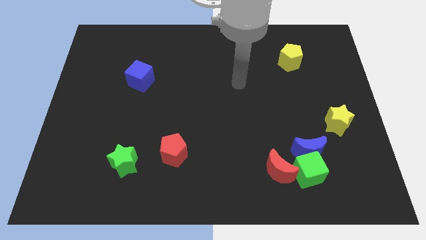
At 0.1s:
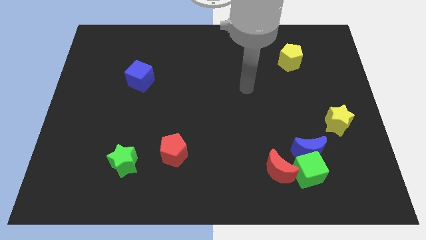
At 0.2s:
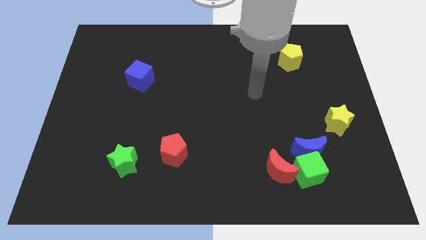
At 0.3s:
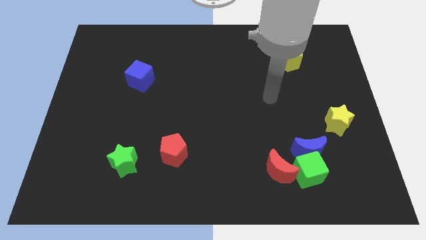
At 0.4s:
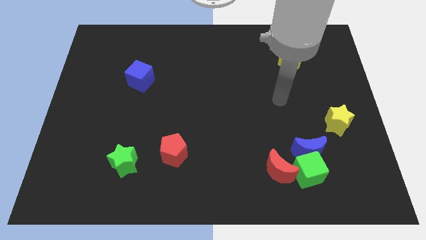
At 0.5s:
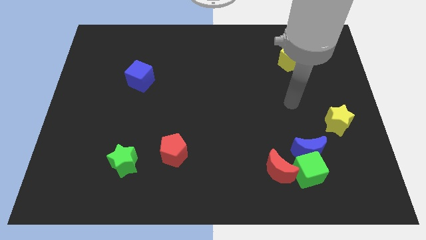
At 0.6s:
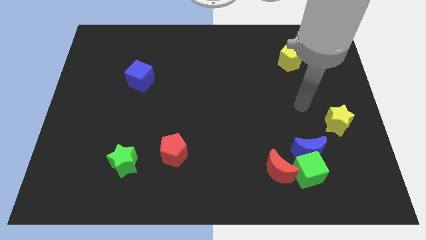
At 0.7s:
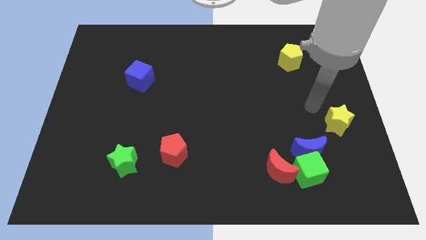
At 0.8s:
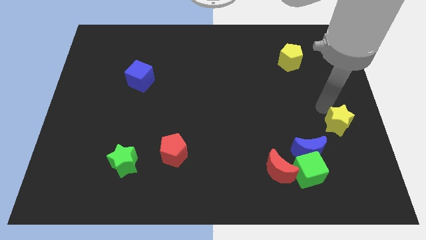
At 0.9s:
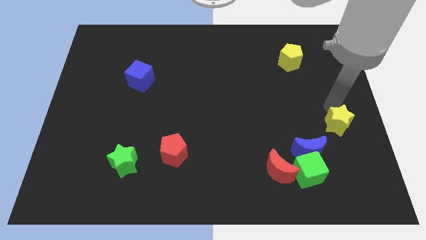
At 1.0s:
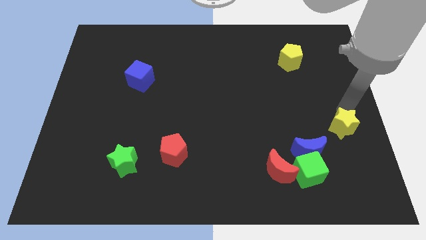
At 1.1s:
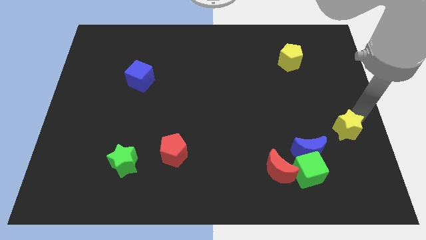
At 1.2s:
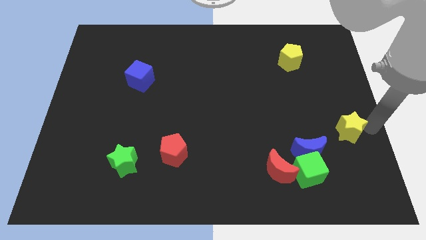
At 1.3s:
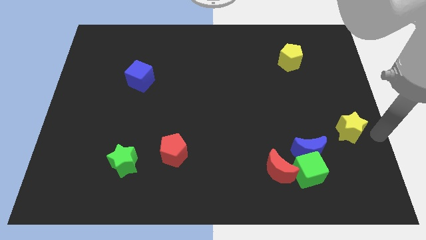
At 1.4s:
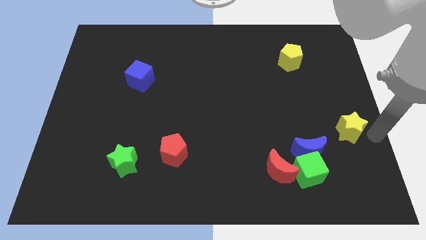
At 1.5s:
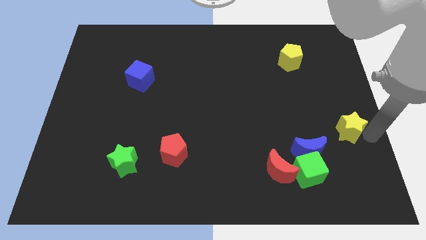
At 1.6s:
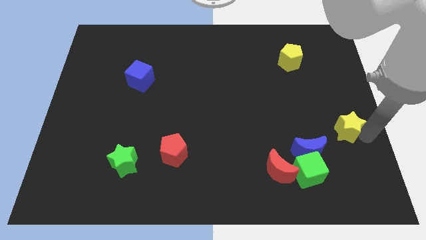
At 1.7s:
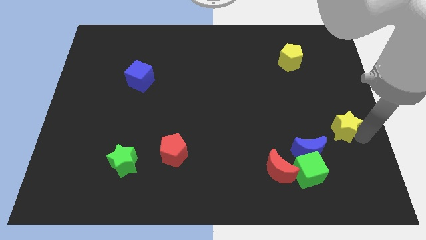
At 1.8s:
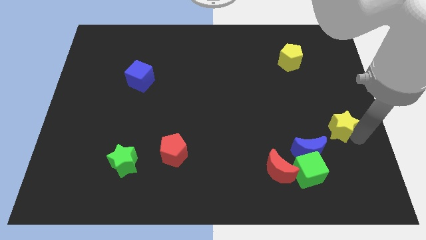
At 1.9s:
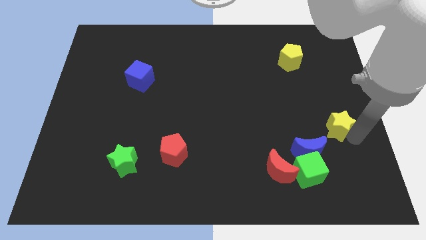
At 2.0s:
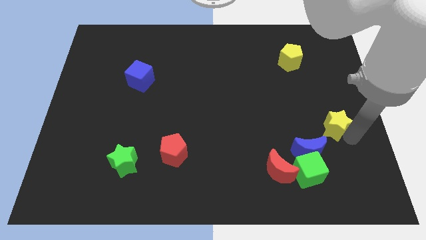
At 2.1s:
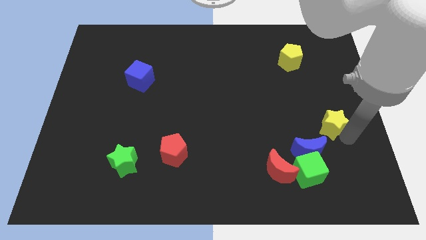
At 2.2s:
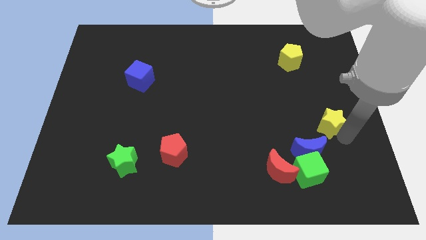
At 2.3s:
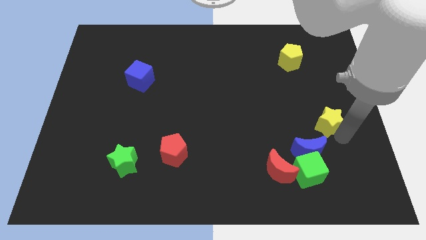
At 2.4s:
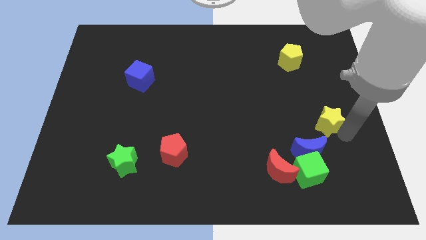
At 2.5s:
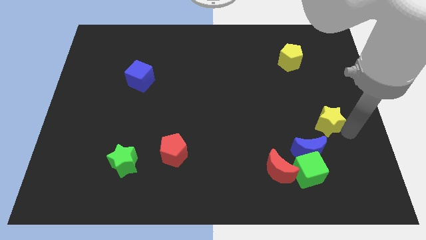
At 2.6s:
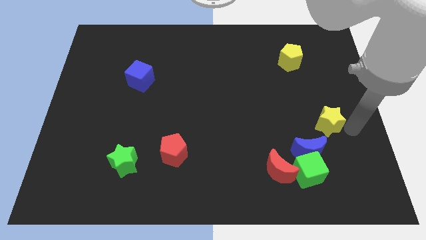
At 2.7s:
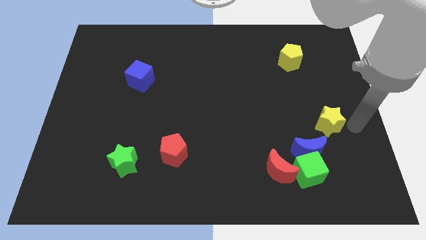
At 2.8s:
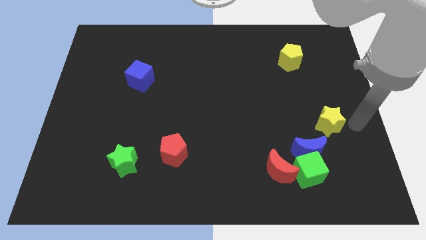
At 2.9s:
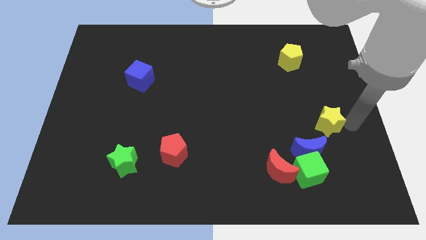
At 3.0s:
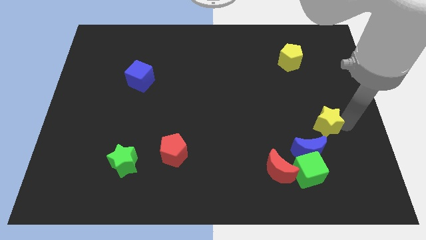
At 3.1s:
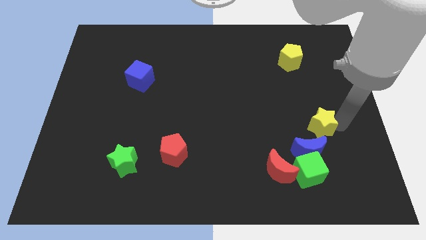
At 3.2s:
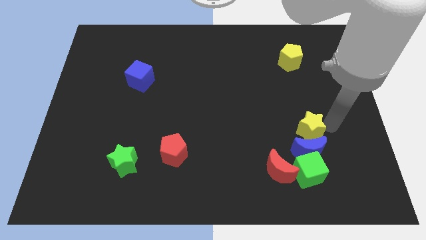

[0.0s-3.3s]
slide the yellow star a little to the left

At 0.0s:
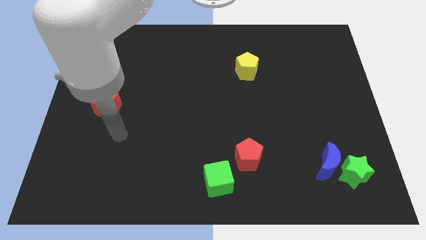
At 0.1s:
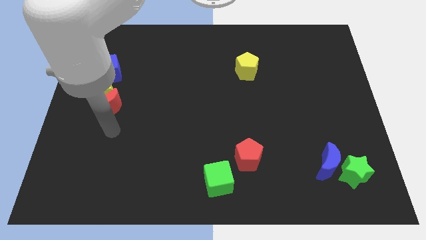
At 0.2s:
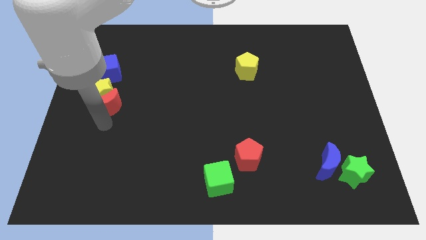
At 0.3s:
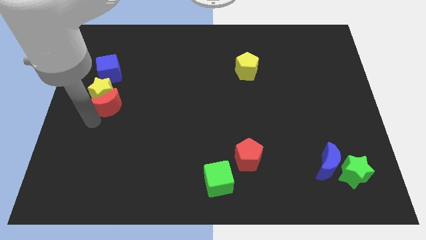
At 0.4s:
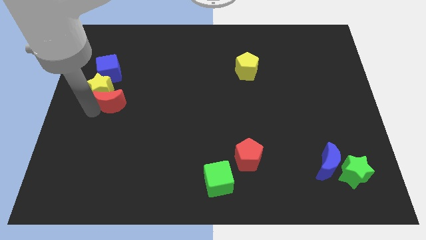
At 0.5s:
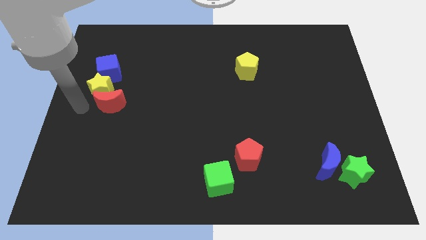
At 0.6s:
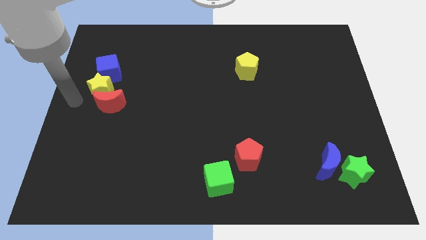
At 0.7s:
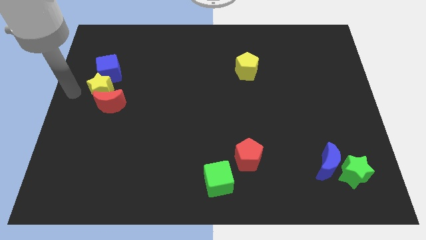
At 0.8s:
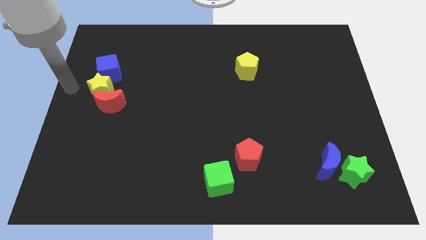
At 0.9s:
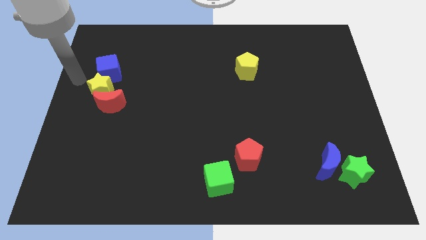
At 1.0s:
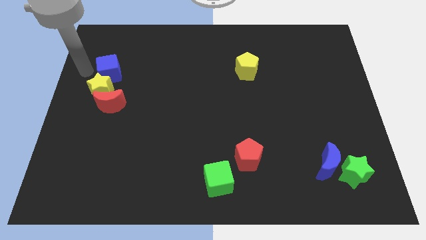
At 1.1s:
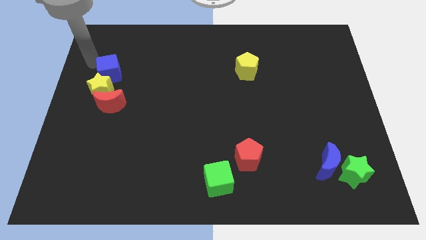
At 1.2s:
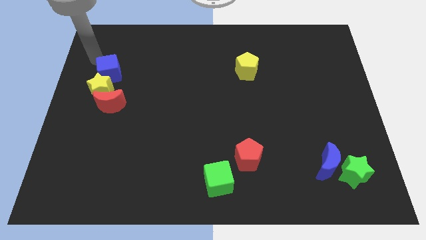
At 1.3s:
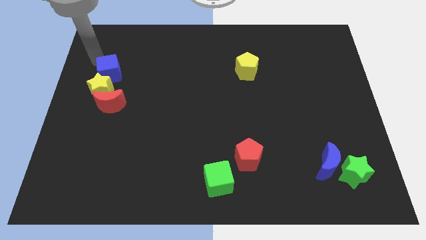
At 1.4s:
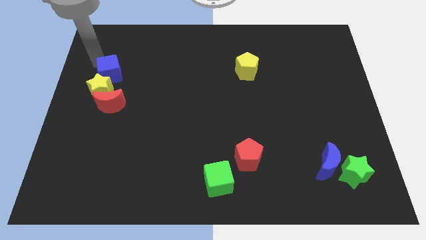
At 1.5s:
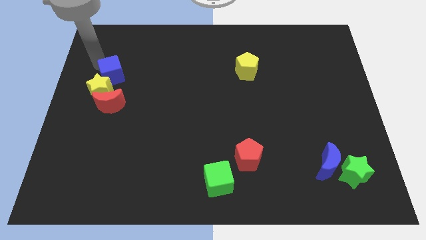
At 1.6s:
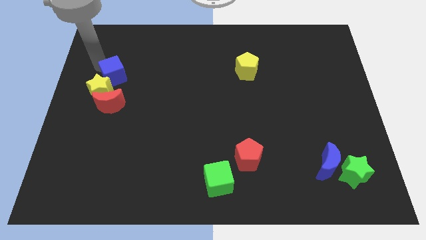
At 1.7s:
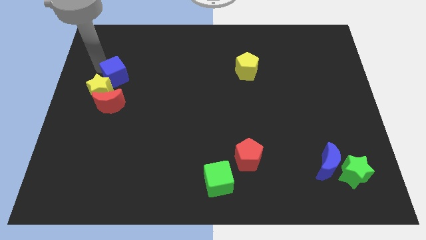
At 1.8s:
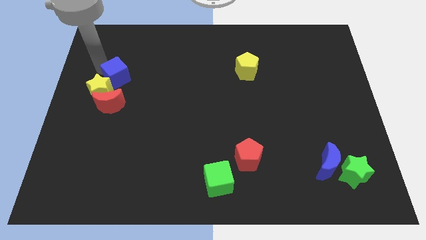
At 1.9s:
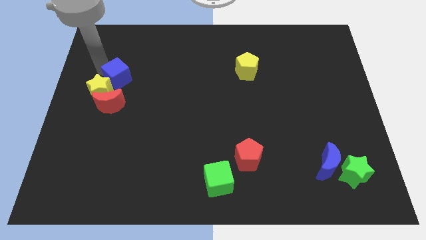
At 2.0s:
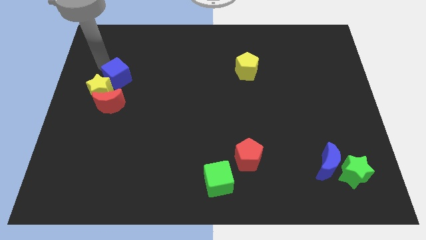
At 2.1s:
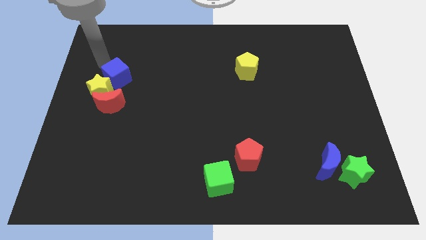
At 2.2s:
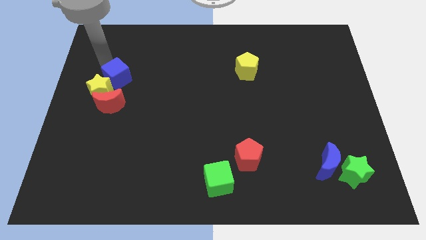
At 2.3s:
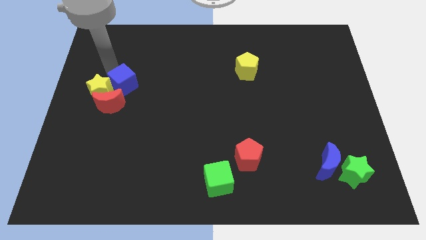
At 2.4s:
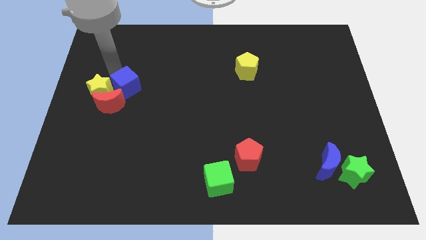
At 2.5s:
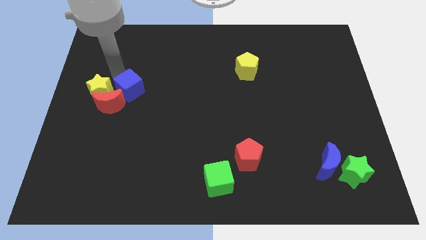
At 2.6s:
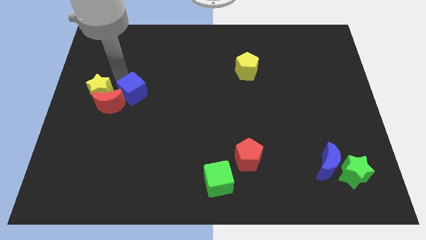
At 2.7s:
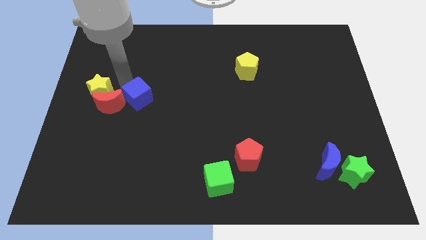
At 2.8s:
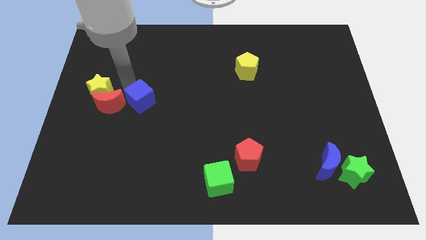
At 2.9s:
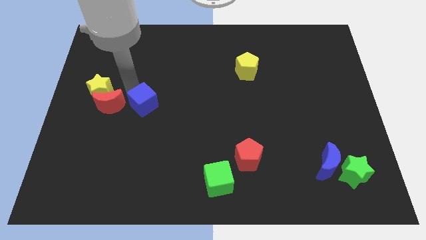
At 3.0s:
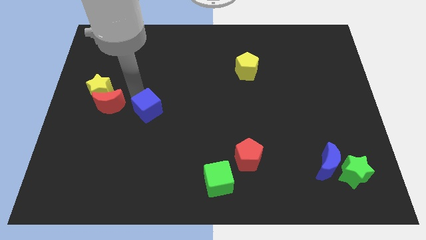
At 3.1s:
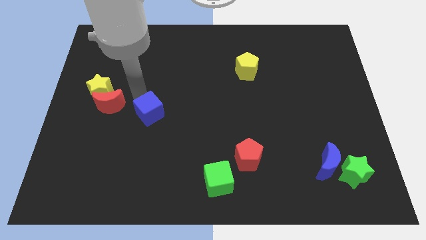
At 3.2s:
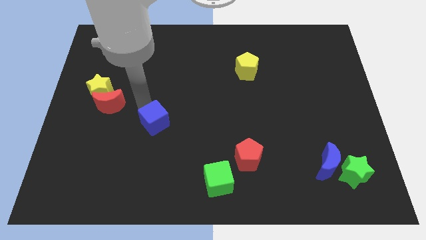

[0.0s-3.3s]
push the blue cube diagonally down and right

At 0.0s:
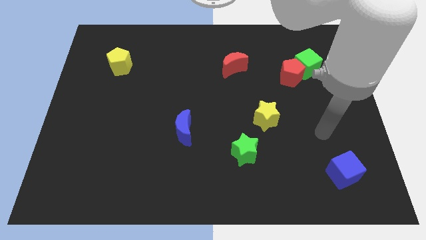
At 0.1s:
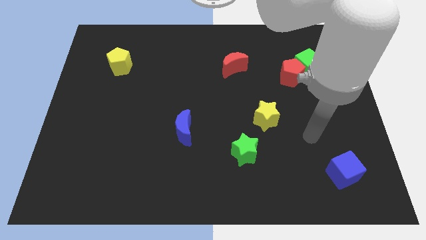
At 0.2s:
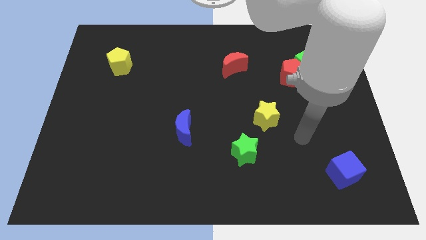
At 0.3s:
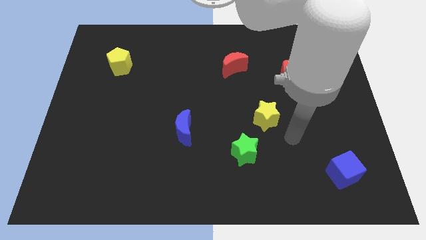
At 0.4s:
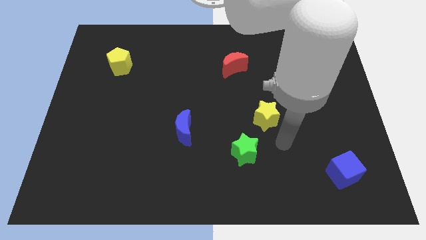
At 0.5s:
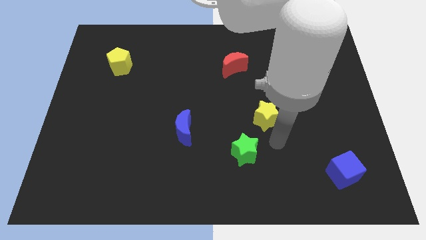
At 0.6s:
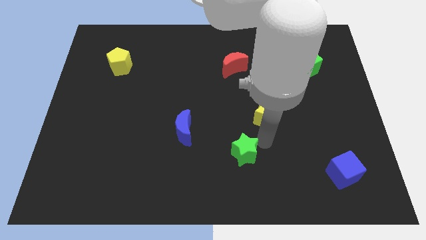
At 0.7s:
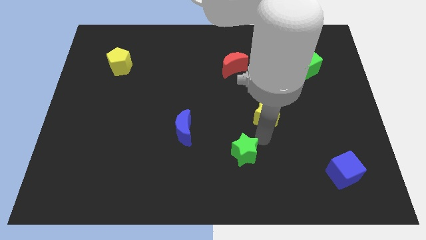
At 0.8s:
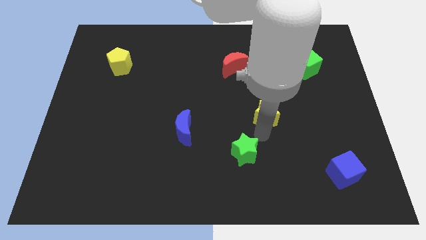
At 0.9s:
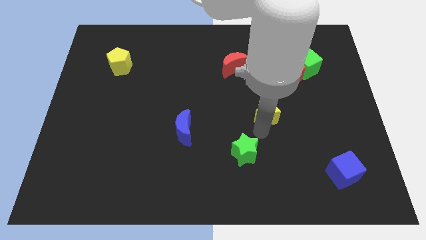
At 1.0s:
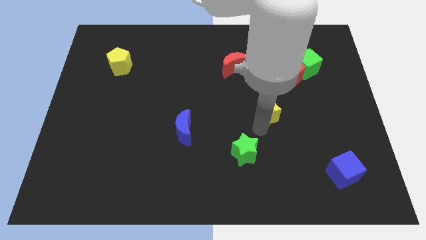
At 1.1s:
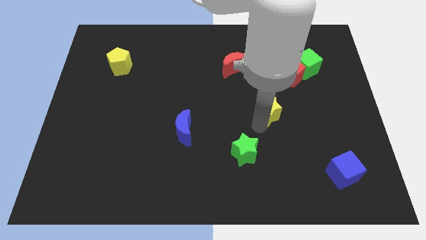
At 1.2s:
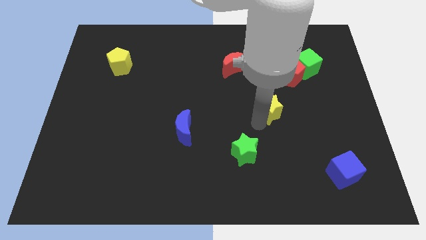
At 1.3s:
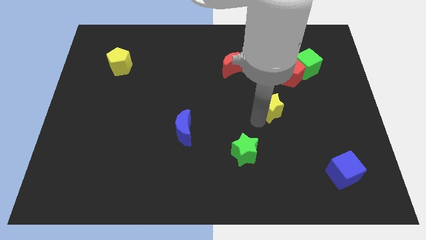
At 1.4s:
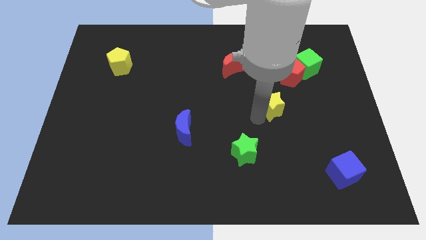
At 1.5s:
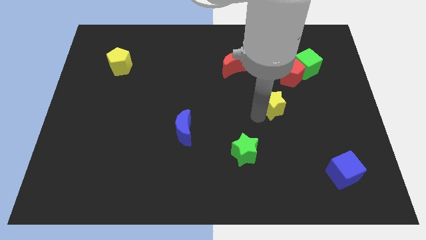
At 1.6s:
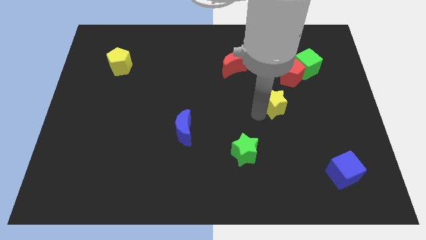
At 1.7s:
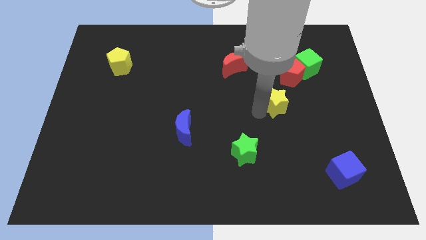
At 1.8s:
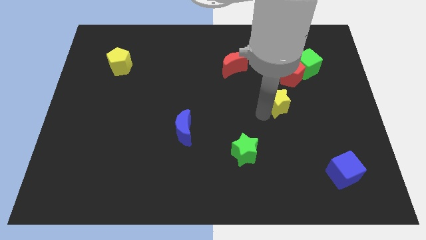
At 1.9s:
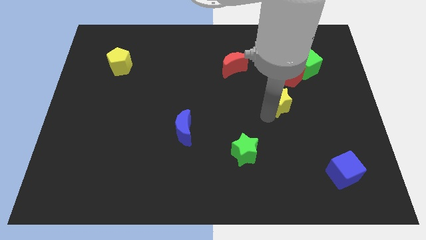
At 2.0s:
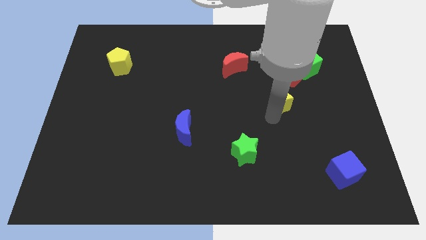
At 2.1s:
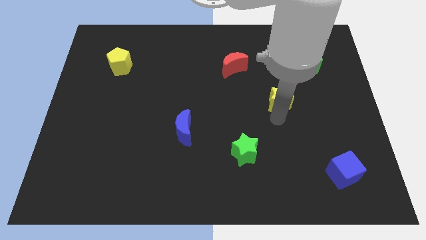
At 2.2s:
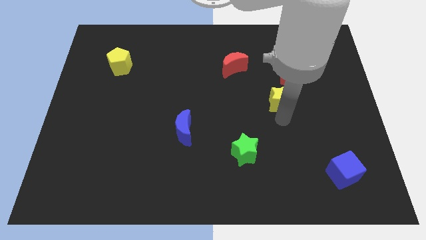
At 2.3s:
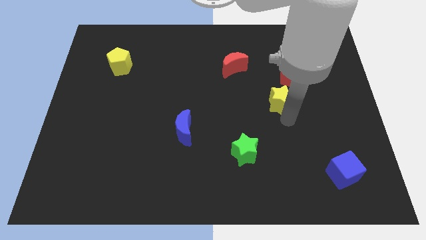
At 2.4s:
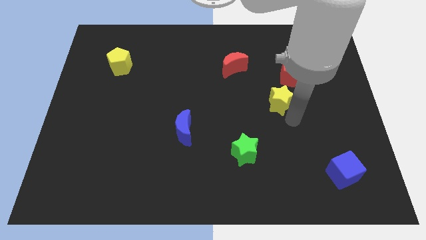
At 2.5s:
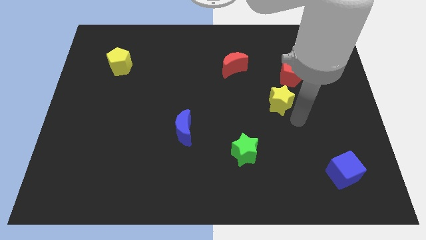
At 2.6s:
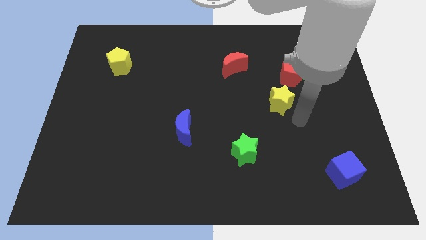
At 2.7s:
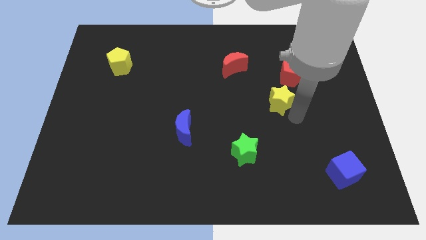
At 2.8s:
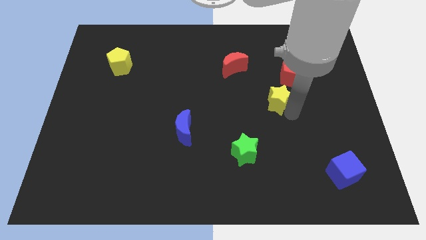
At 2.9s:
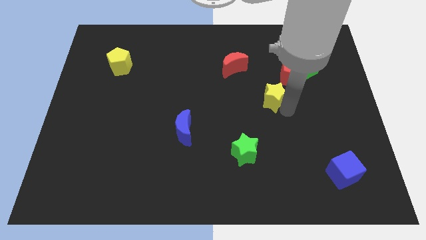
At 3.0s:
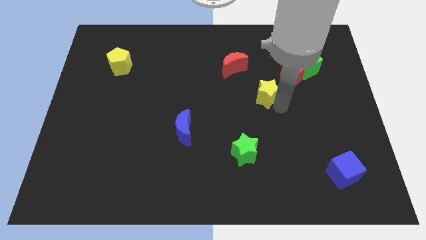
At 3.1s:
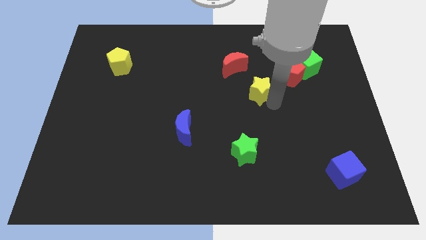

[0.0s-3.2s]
slightly slide the yellow star up
